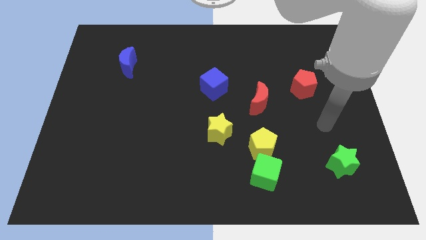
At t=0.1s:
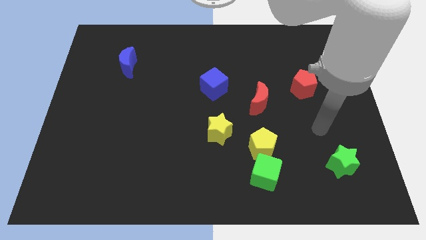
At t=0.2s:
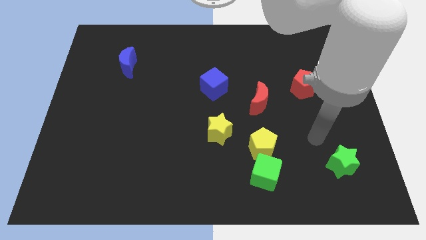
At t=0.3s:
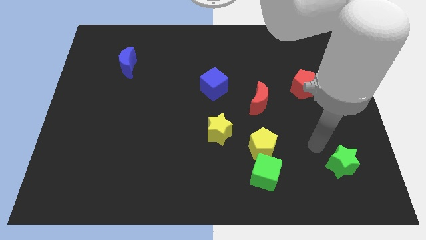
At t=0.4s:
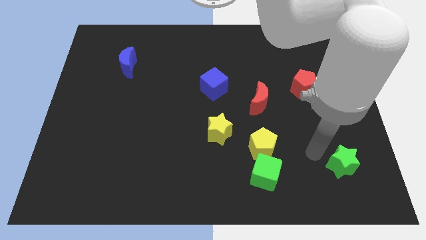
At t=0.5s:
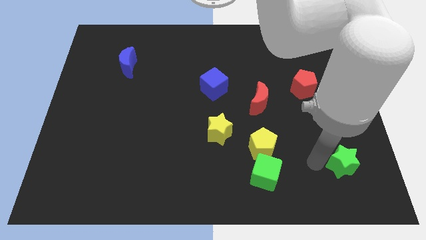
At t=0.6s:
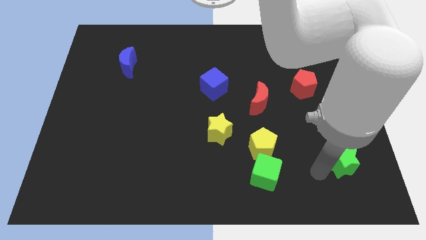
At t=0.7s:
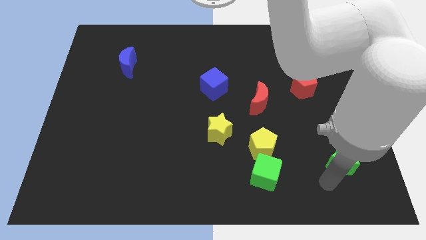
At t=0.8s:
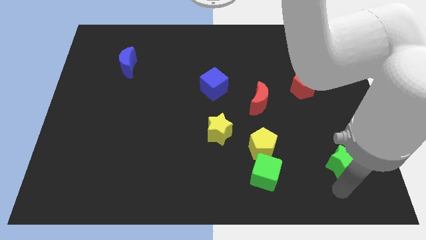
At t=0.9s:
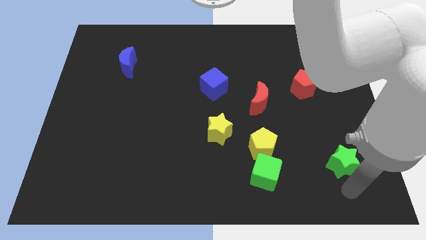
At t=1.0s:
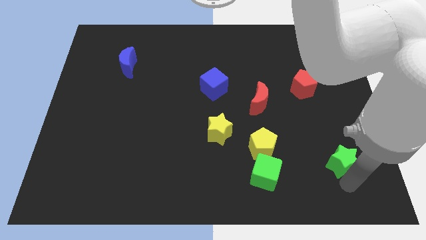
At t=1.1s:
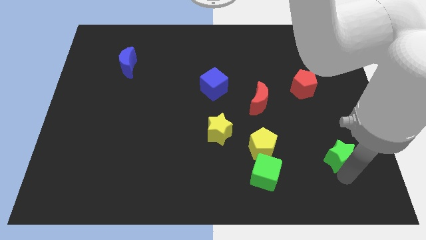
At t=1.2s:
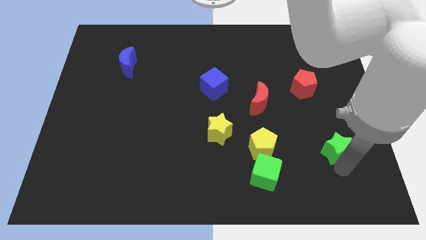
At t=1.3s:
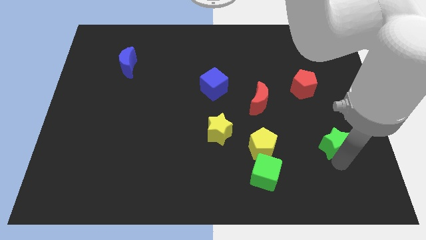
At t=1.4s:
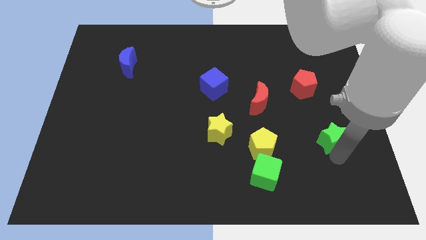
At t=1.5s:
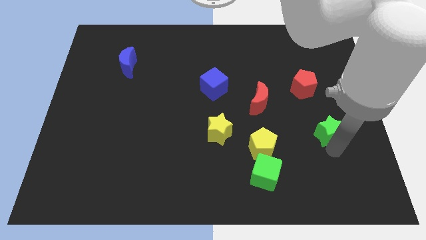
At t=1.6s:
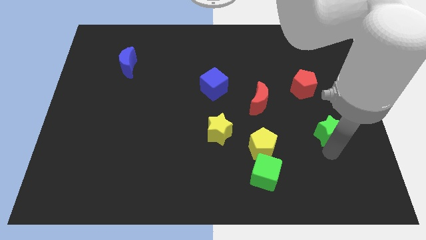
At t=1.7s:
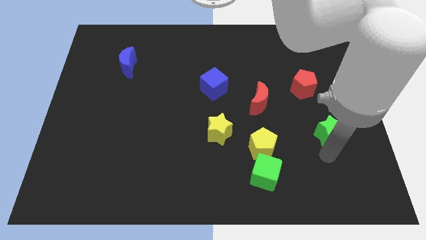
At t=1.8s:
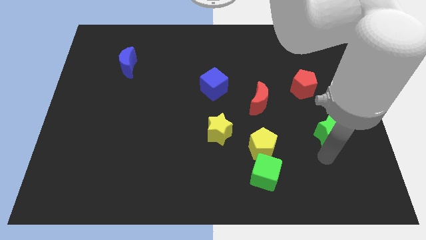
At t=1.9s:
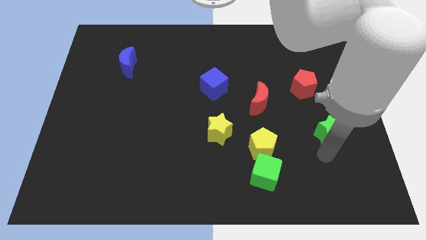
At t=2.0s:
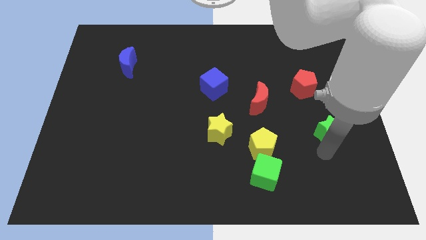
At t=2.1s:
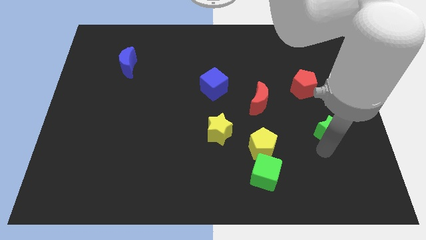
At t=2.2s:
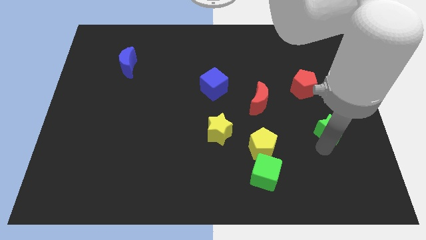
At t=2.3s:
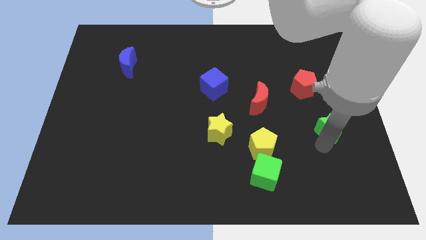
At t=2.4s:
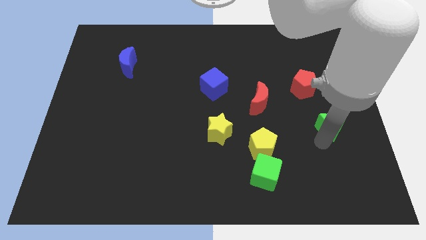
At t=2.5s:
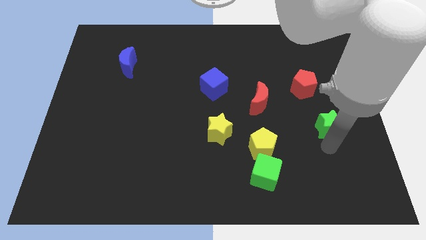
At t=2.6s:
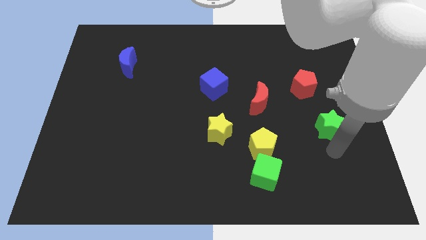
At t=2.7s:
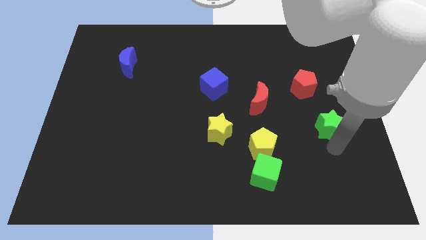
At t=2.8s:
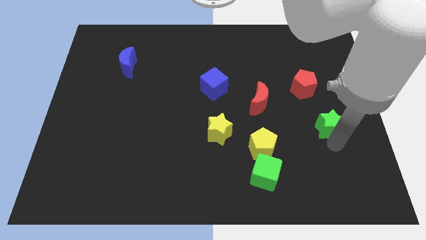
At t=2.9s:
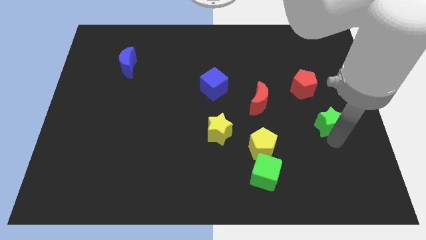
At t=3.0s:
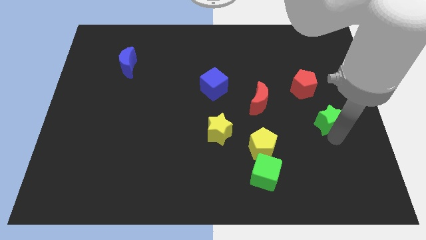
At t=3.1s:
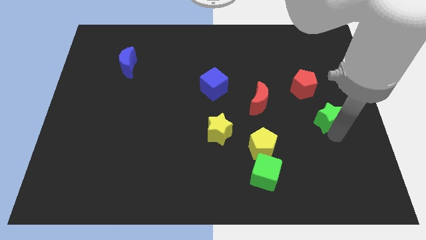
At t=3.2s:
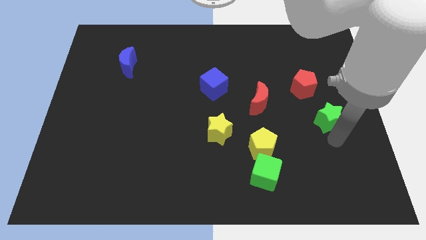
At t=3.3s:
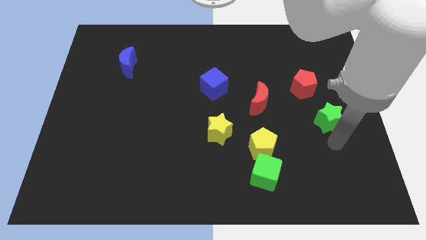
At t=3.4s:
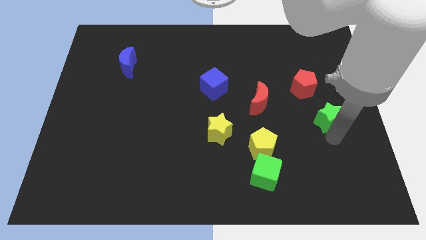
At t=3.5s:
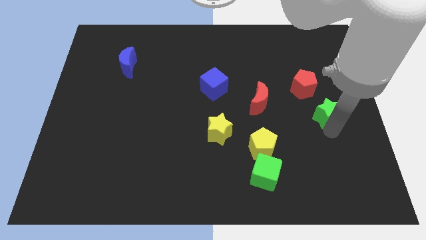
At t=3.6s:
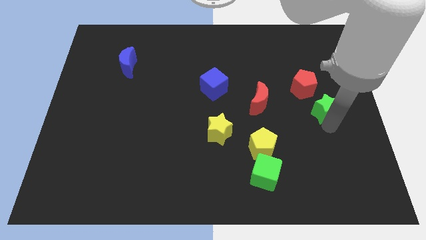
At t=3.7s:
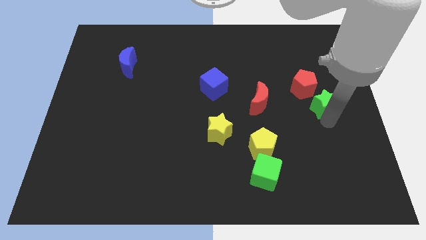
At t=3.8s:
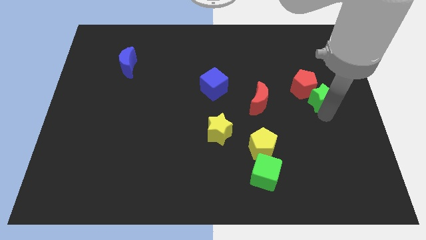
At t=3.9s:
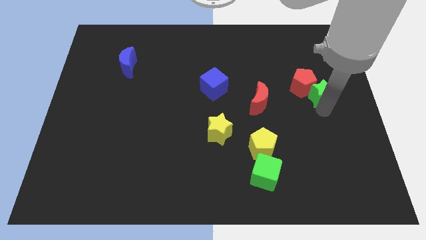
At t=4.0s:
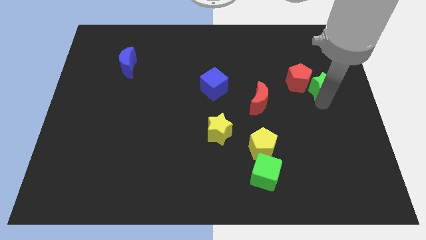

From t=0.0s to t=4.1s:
move the green star upwards

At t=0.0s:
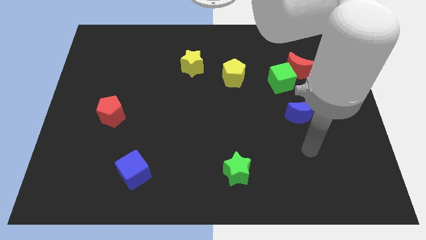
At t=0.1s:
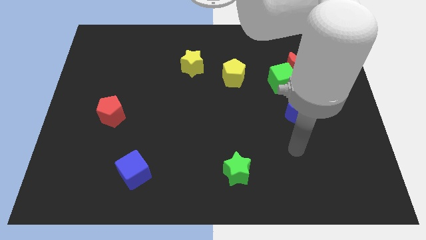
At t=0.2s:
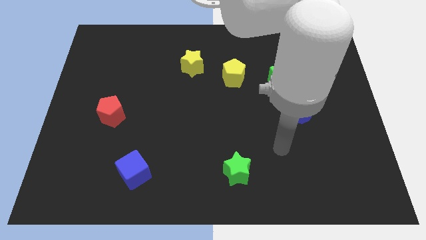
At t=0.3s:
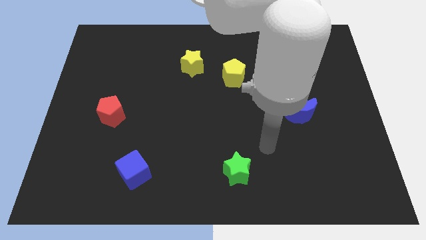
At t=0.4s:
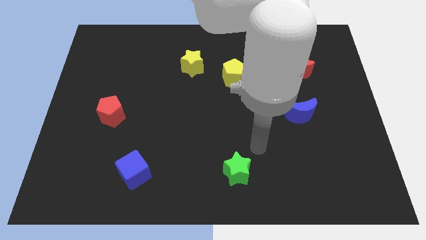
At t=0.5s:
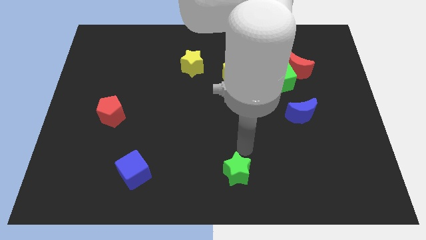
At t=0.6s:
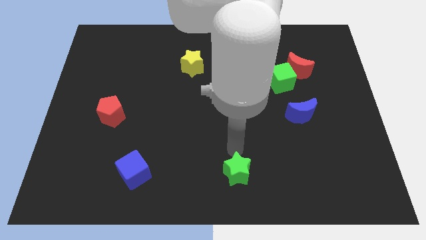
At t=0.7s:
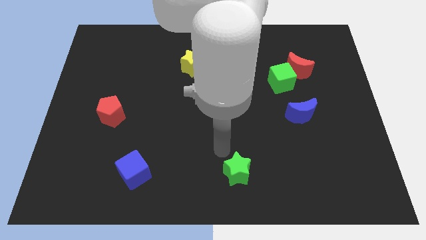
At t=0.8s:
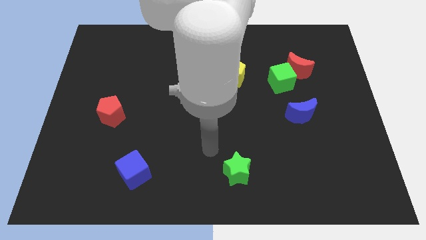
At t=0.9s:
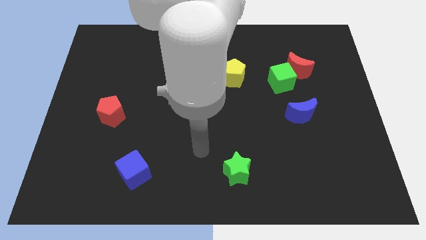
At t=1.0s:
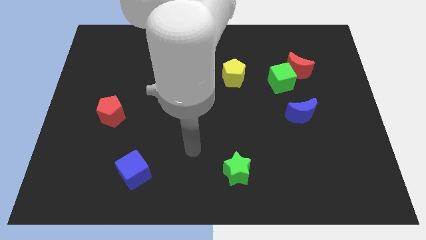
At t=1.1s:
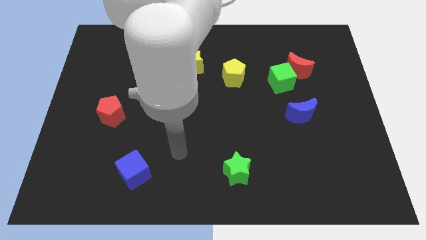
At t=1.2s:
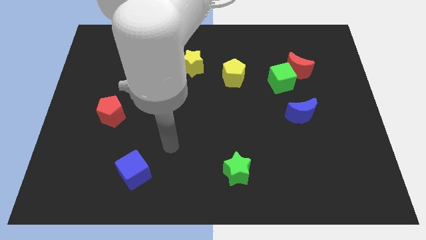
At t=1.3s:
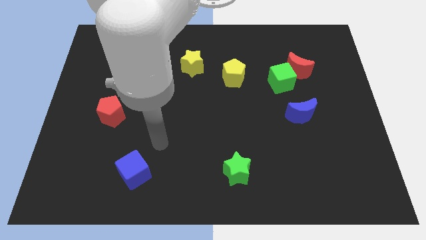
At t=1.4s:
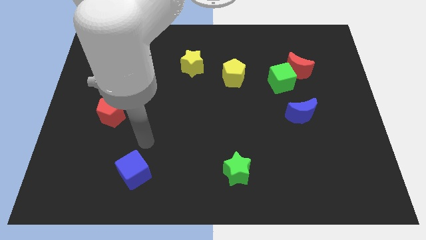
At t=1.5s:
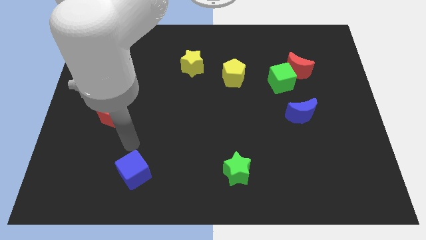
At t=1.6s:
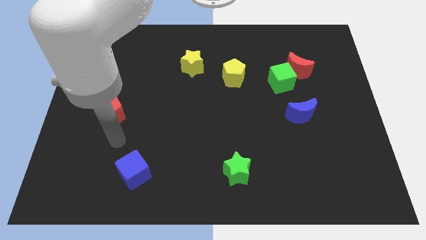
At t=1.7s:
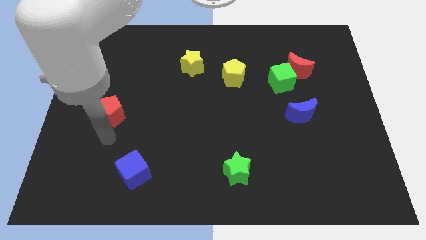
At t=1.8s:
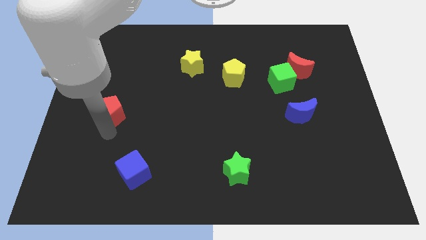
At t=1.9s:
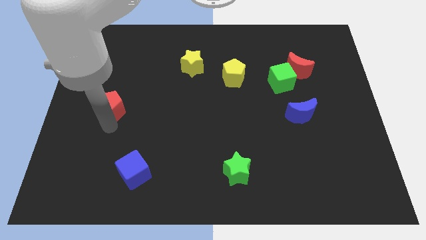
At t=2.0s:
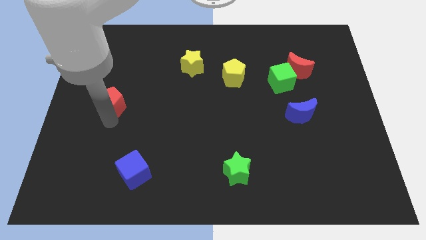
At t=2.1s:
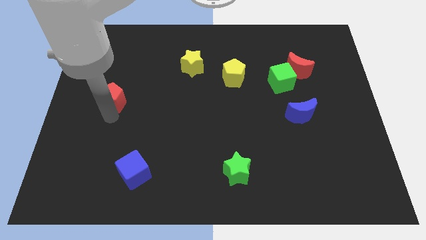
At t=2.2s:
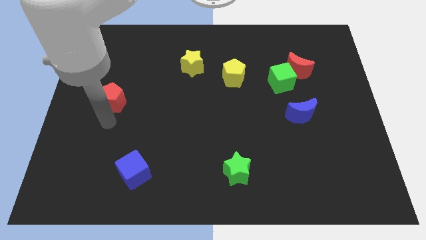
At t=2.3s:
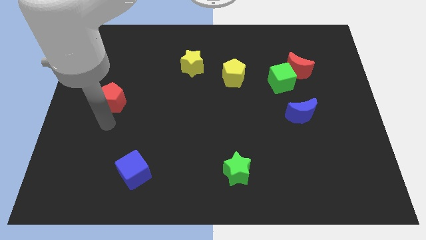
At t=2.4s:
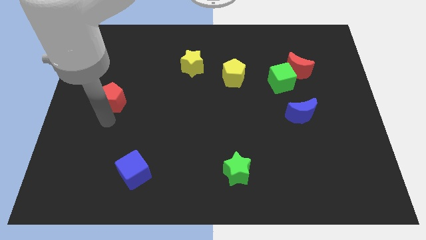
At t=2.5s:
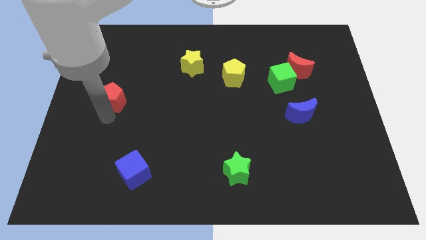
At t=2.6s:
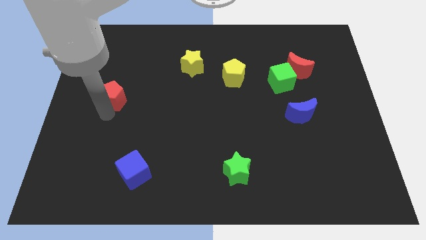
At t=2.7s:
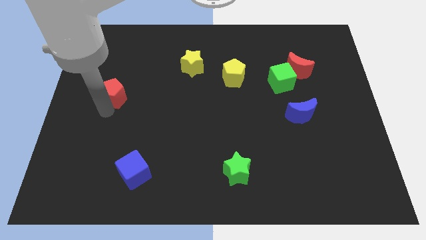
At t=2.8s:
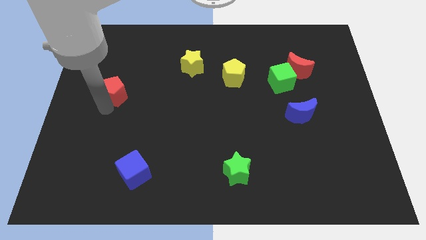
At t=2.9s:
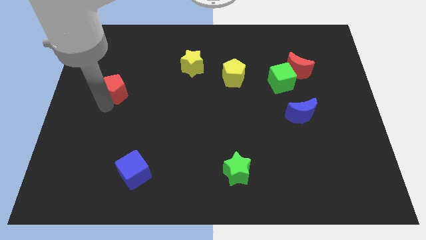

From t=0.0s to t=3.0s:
slide the red pentagon a little bit up

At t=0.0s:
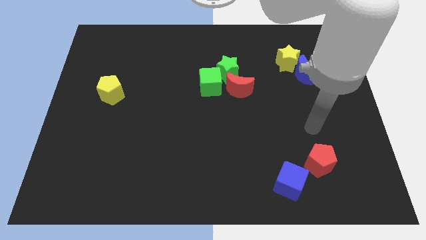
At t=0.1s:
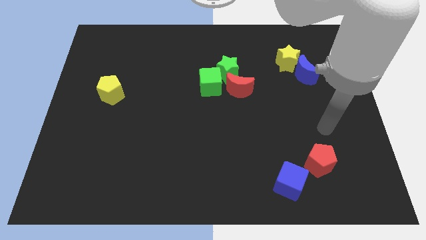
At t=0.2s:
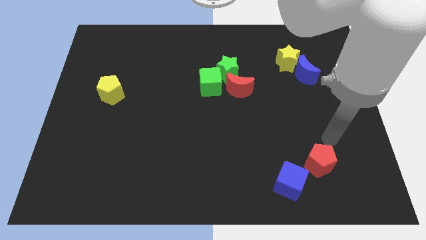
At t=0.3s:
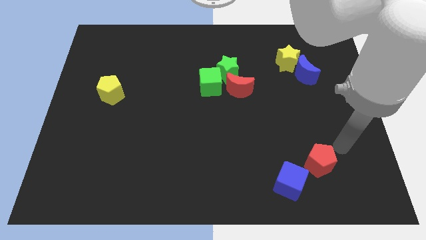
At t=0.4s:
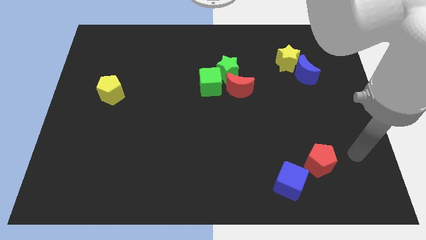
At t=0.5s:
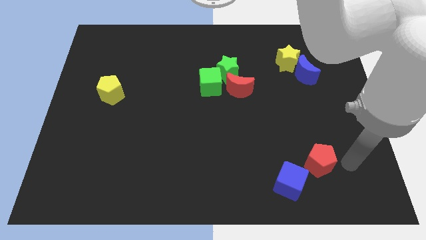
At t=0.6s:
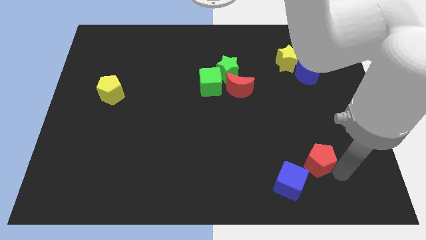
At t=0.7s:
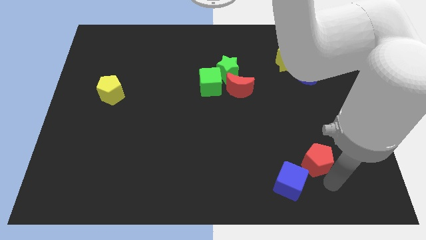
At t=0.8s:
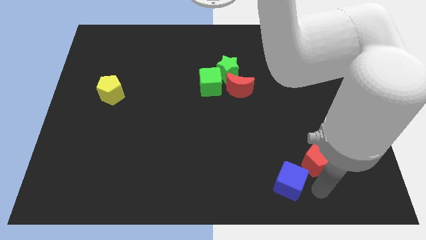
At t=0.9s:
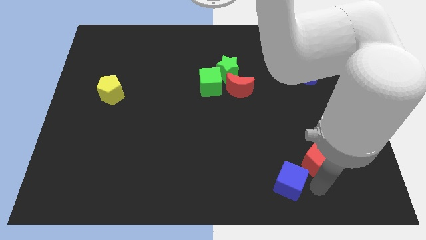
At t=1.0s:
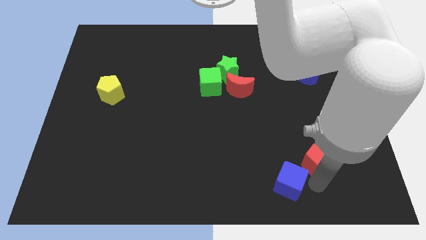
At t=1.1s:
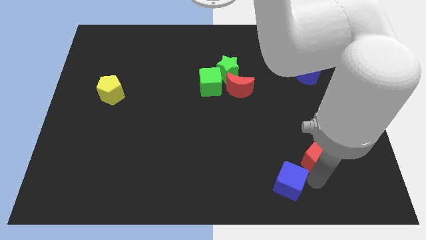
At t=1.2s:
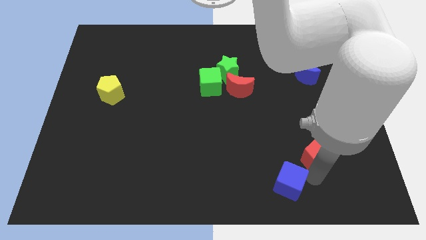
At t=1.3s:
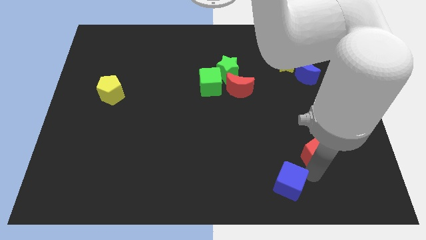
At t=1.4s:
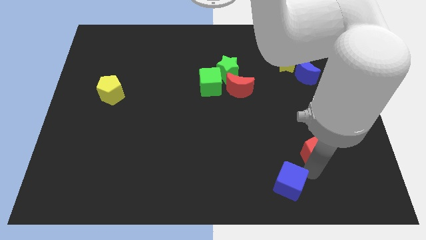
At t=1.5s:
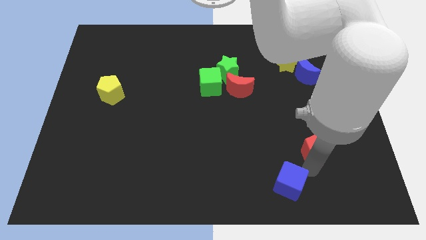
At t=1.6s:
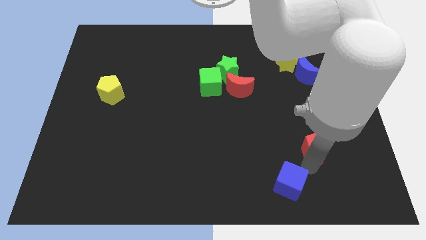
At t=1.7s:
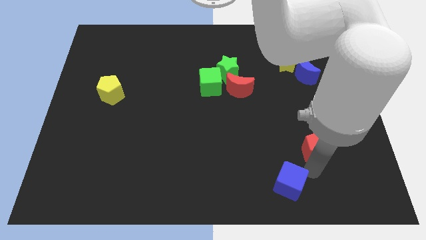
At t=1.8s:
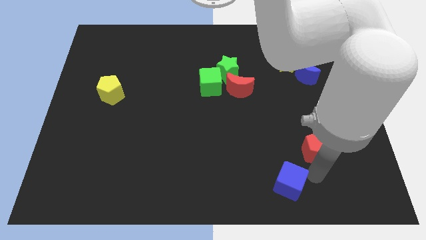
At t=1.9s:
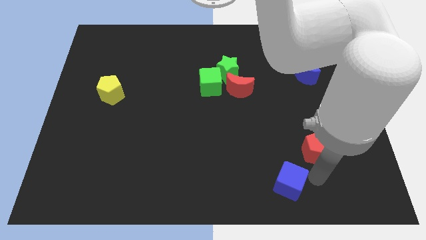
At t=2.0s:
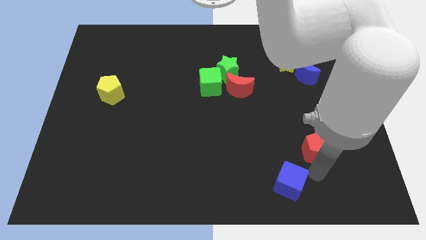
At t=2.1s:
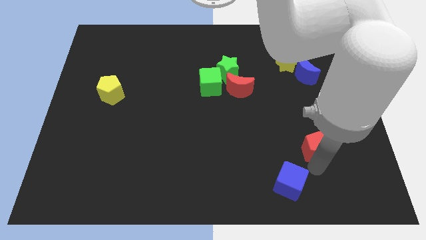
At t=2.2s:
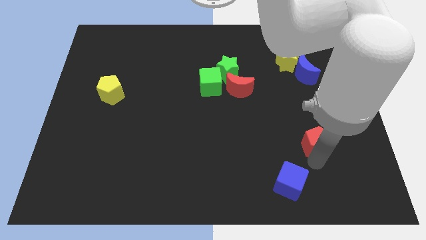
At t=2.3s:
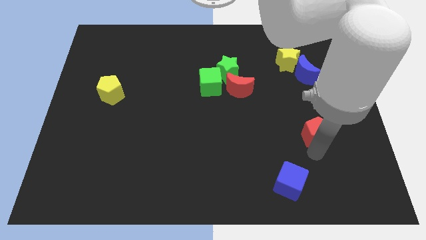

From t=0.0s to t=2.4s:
push the red pentagon a little bit up
